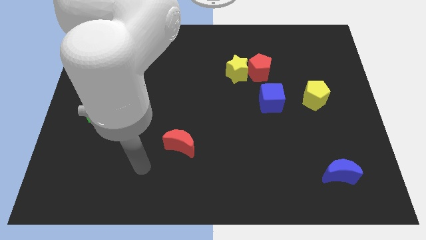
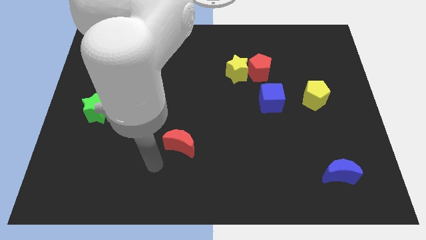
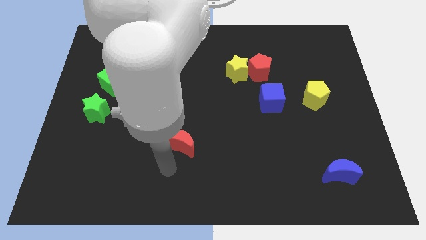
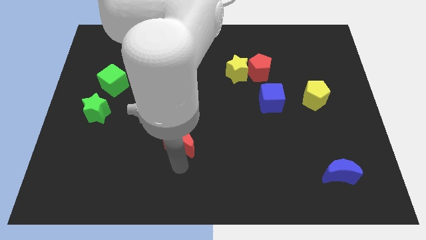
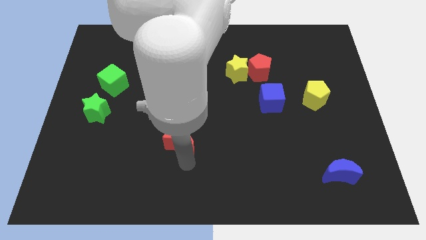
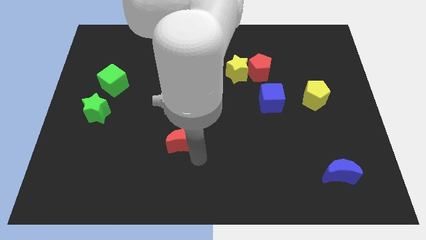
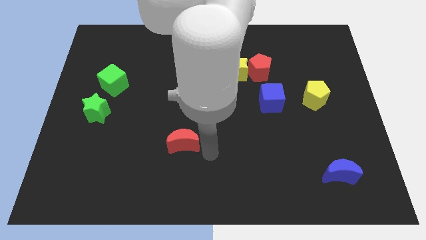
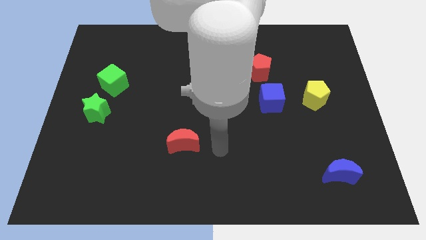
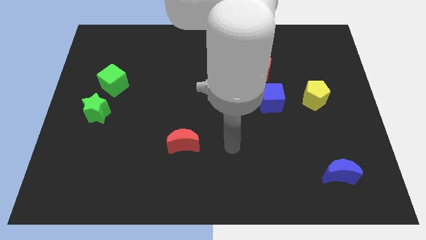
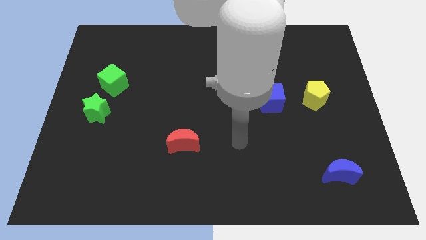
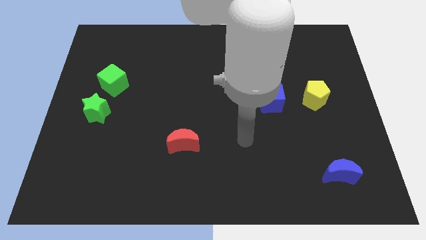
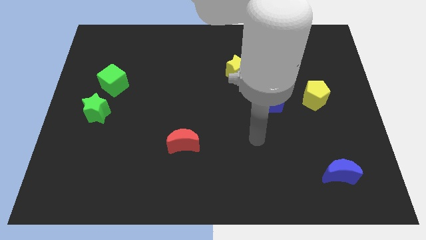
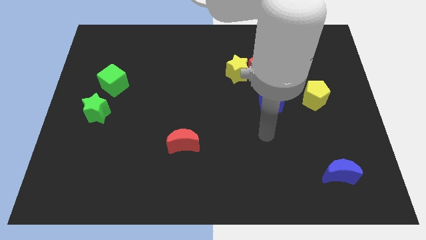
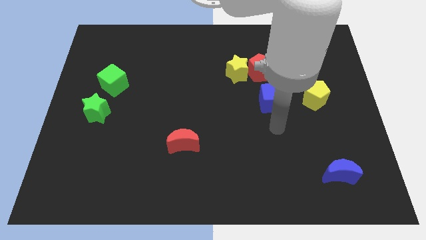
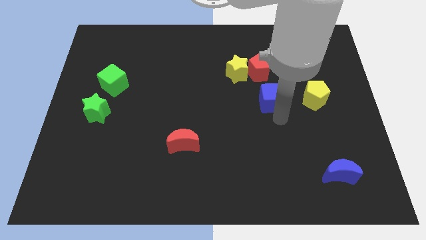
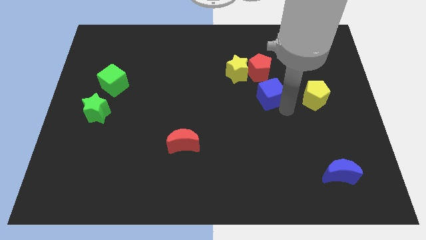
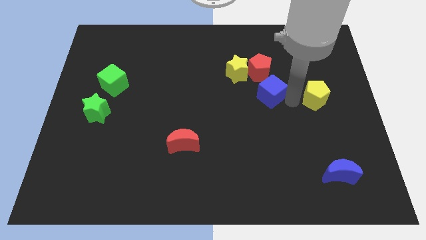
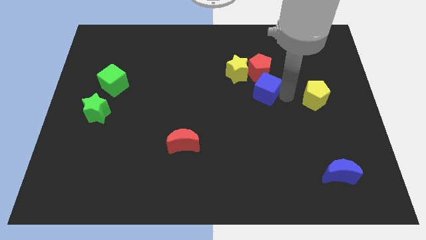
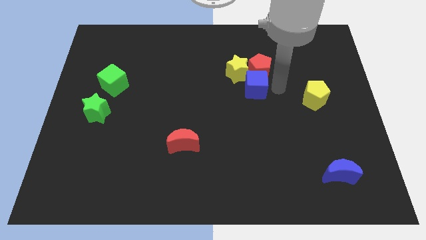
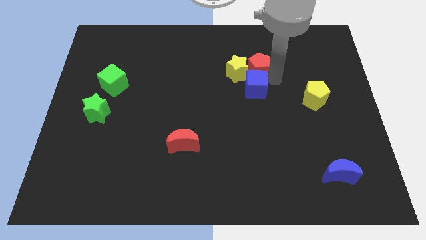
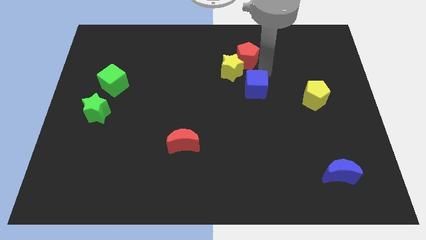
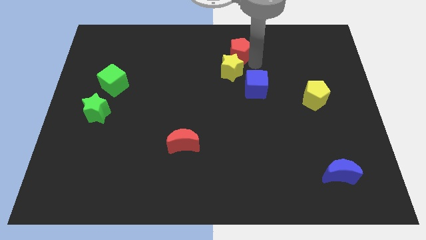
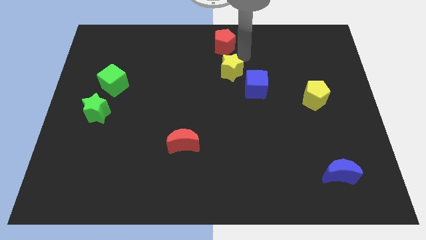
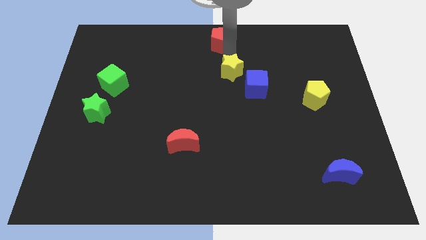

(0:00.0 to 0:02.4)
move the yellow star away from the red pentagon

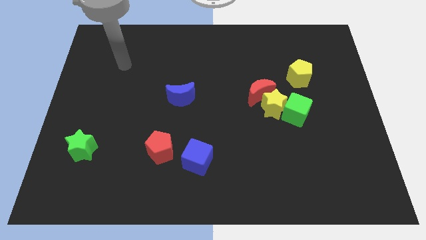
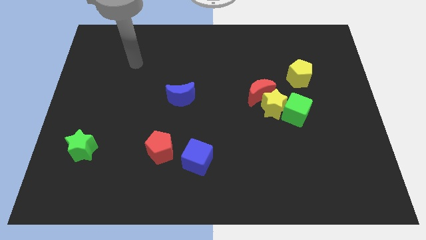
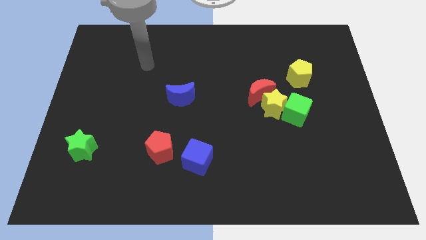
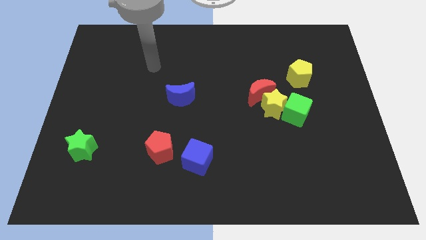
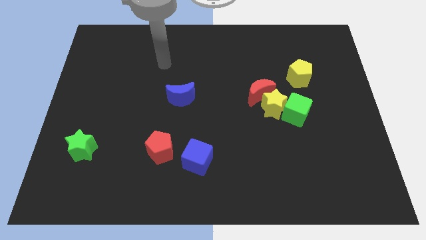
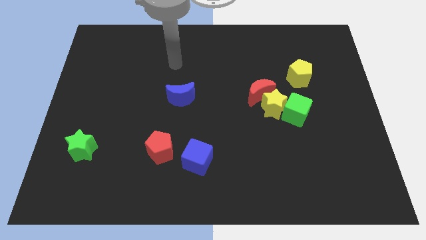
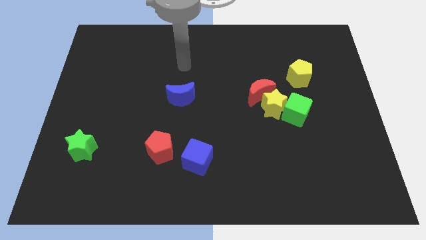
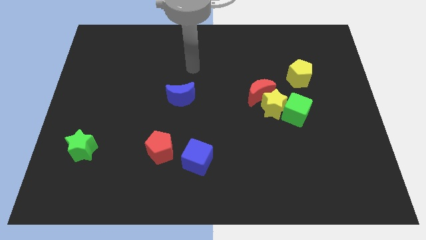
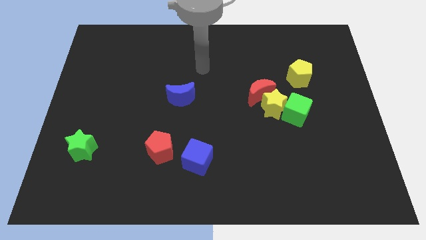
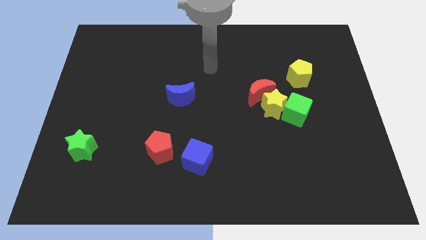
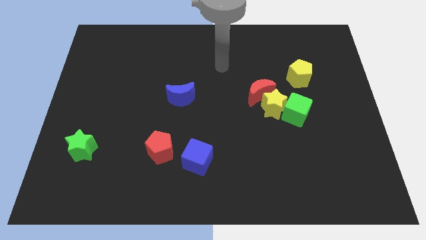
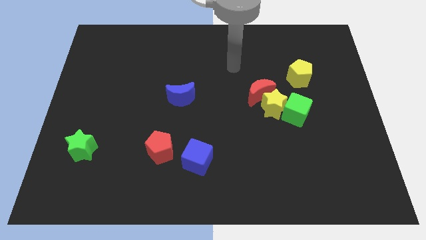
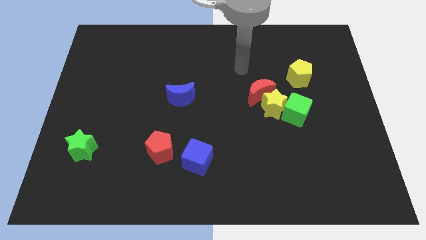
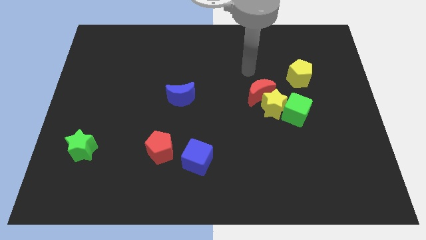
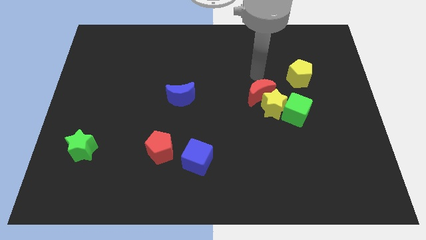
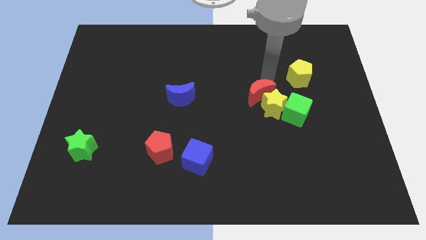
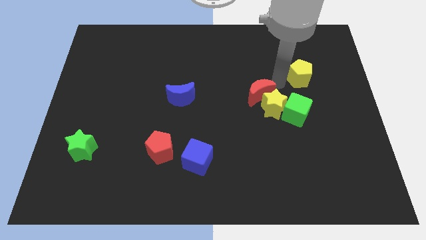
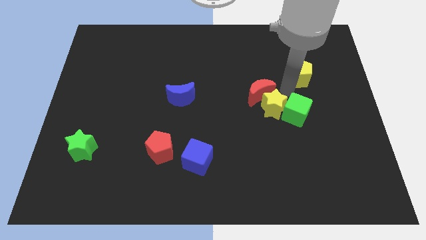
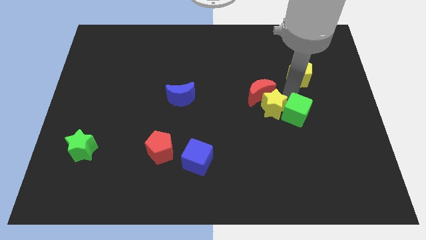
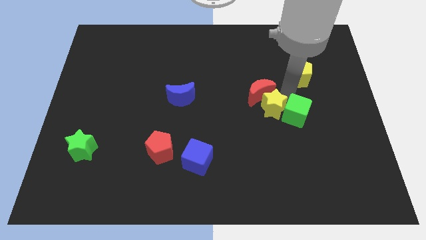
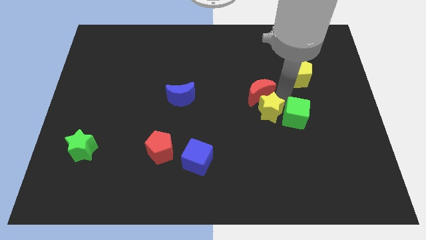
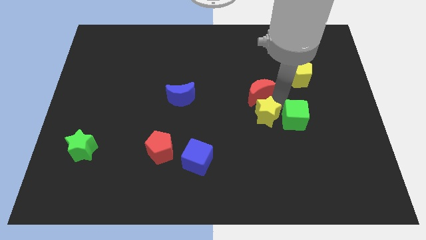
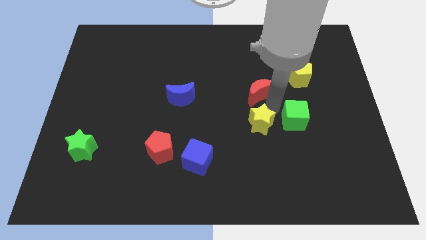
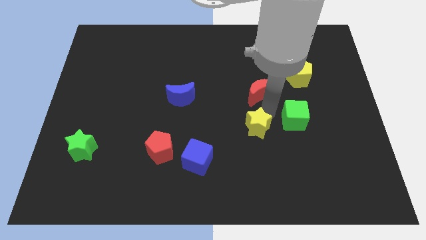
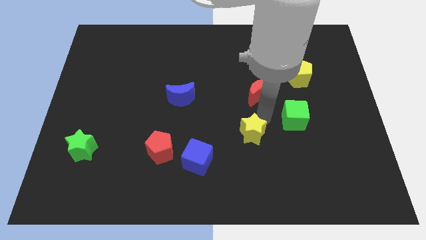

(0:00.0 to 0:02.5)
pull the yellow star apart from the red moon and green cube

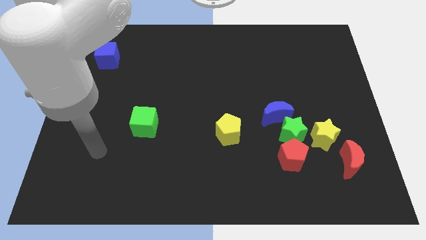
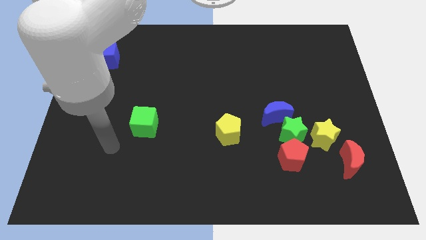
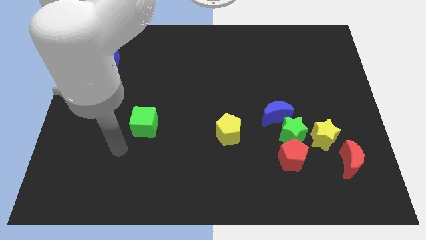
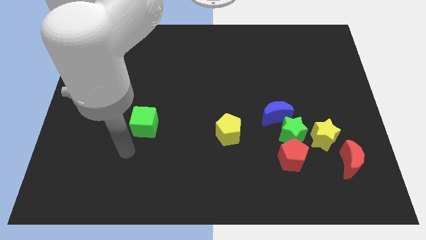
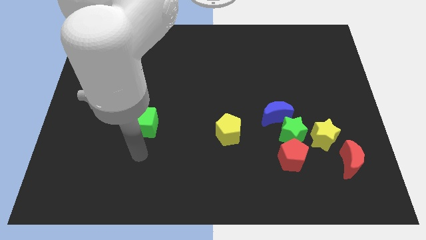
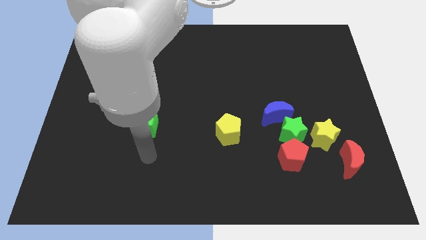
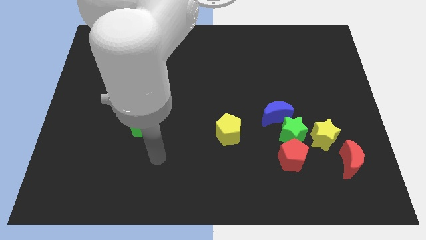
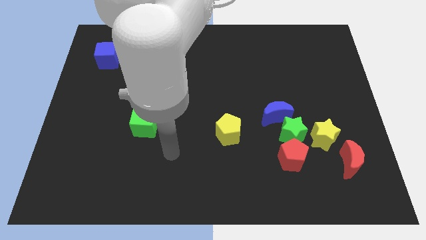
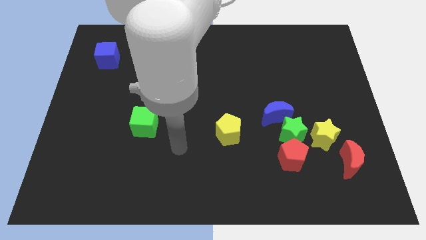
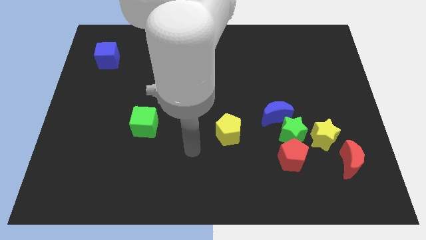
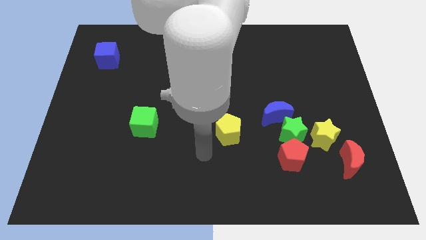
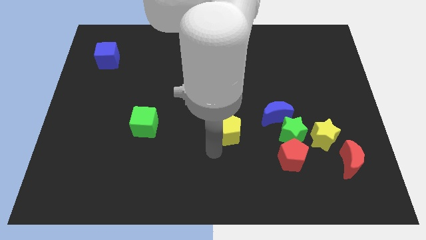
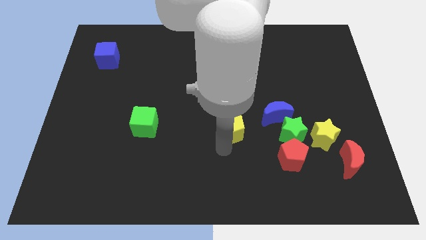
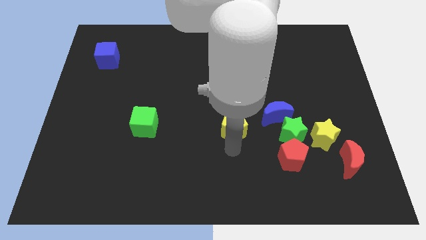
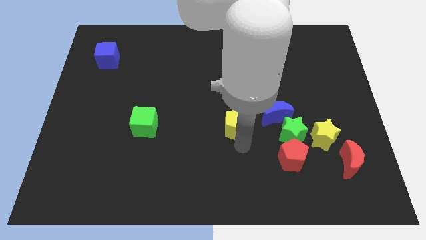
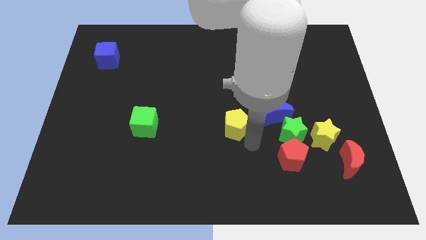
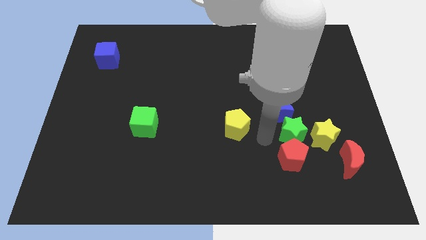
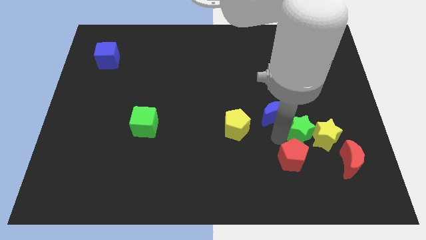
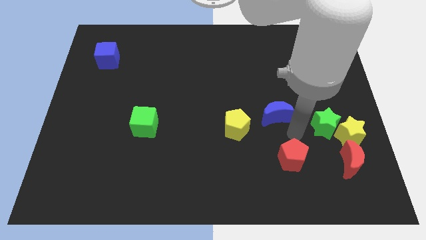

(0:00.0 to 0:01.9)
pull the blue moon apart from the green star

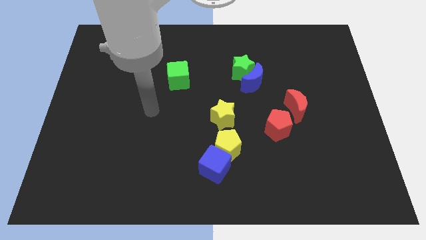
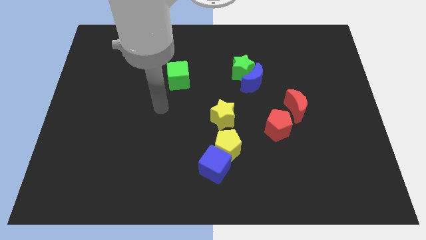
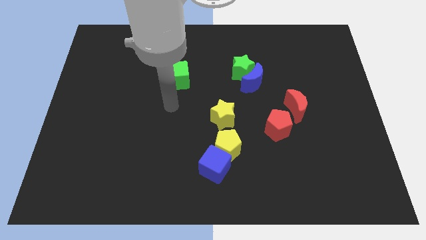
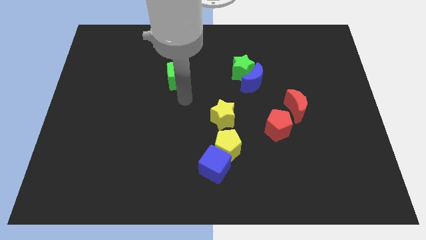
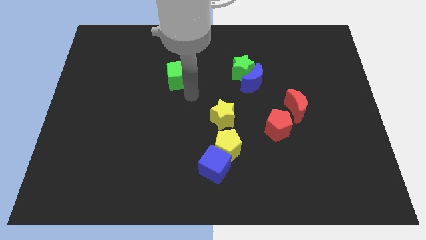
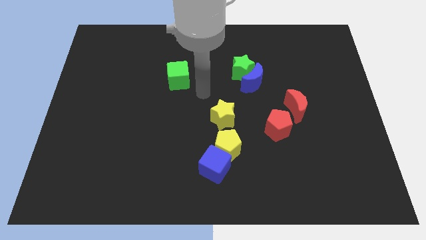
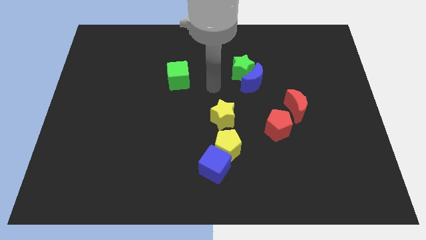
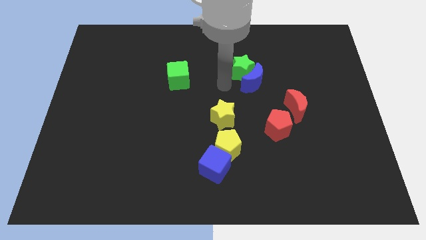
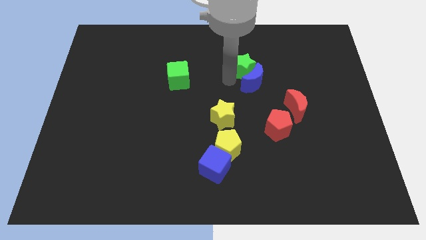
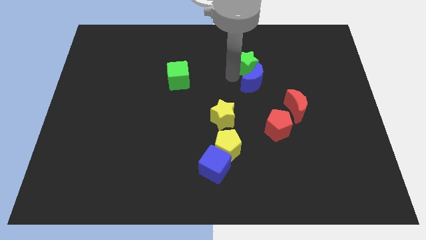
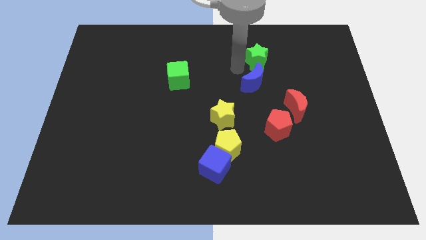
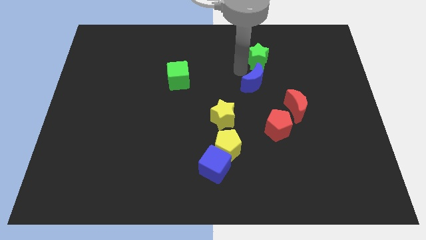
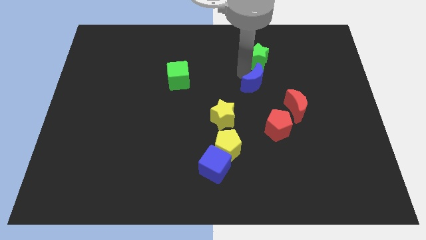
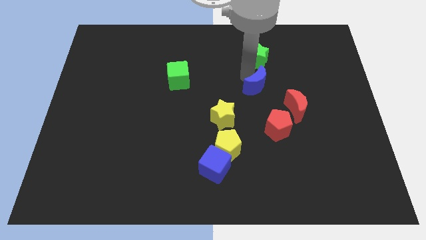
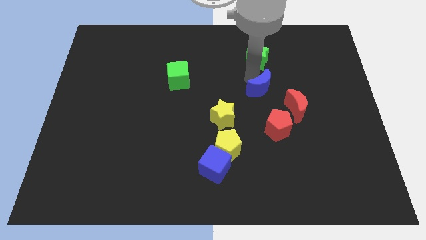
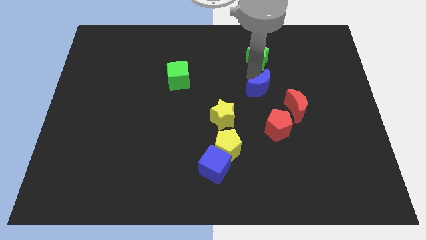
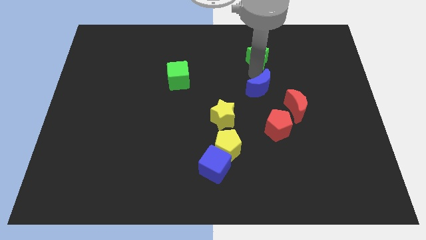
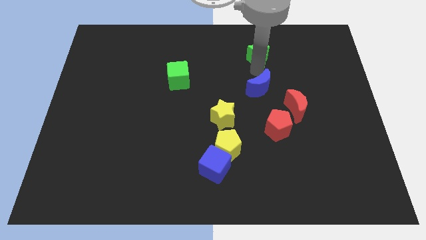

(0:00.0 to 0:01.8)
move the blue moon away from the green star

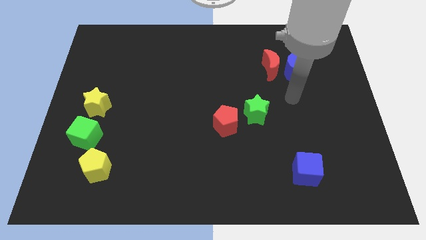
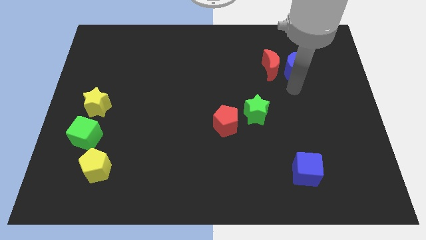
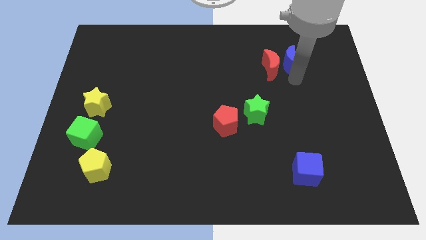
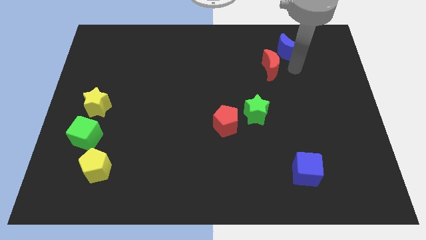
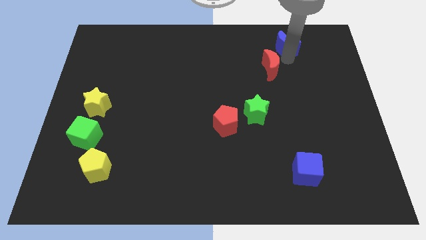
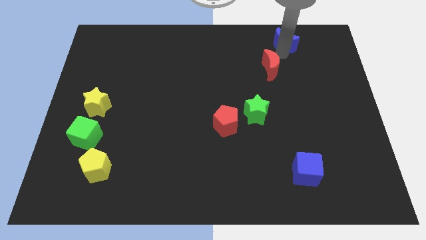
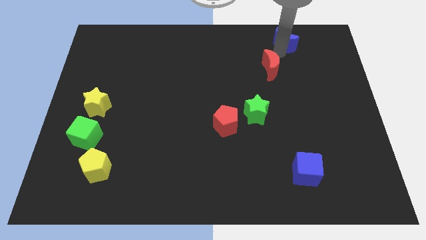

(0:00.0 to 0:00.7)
separate the red moon from the blue moon
